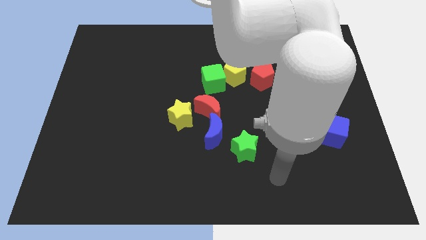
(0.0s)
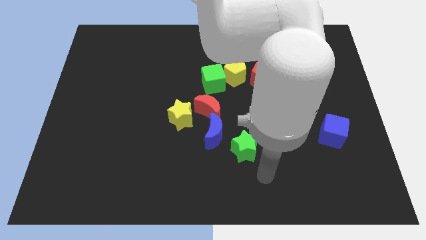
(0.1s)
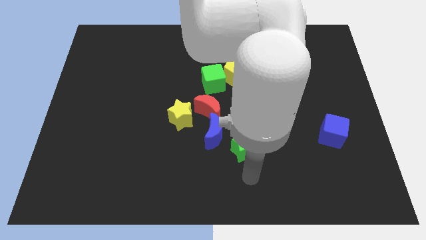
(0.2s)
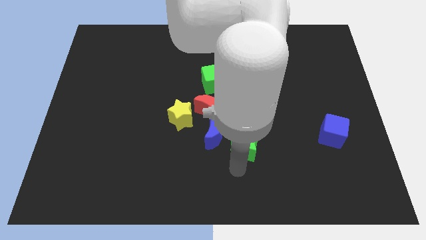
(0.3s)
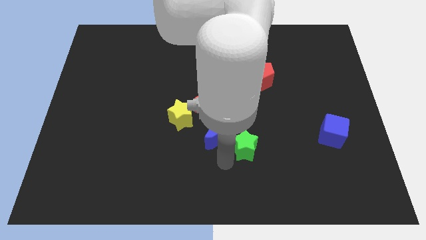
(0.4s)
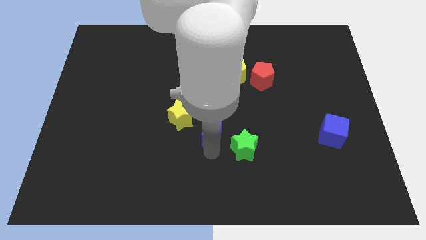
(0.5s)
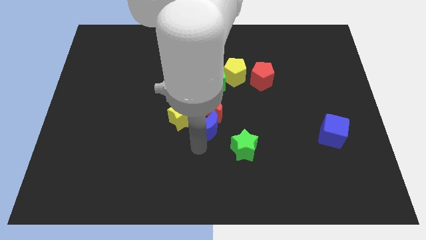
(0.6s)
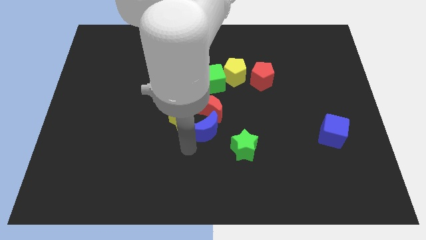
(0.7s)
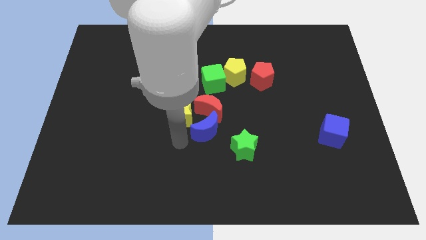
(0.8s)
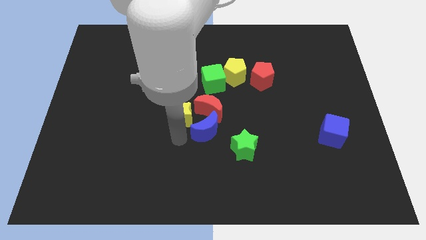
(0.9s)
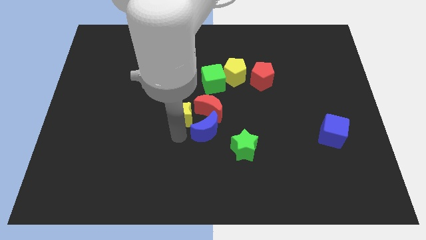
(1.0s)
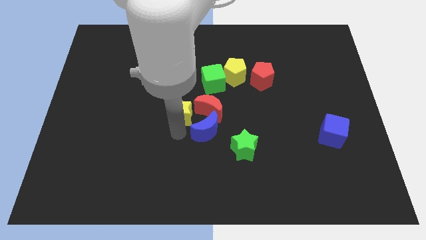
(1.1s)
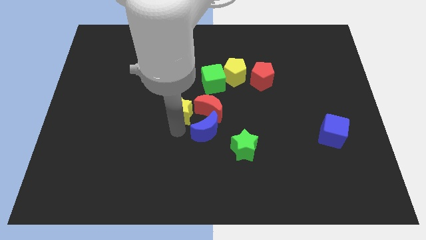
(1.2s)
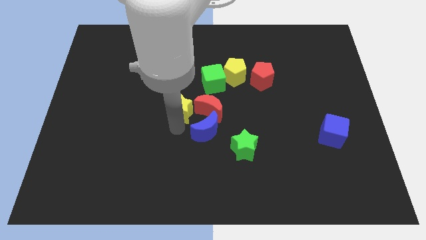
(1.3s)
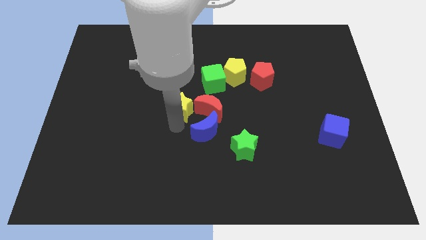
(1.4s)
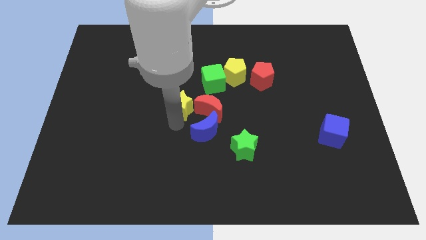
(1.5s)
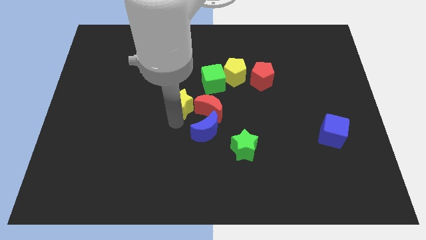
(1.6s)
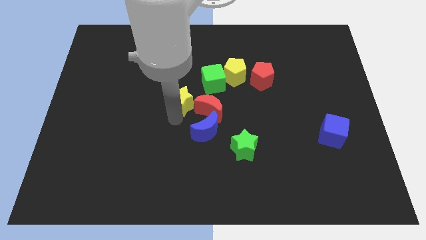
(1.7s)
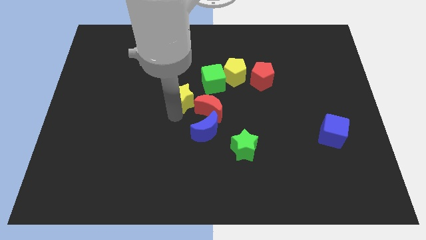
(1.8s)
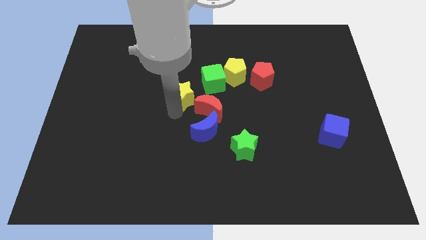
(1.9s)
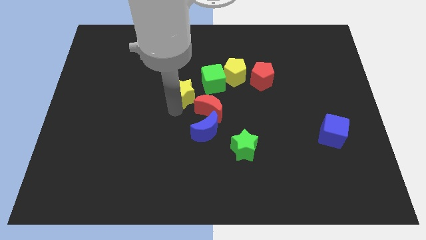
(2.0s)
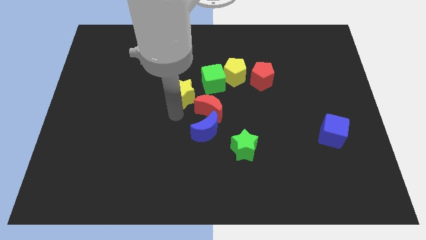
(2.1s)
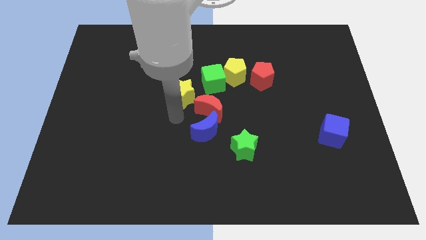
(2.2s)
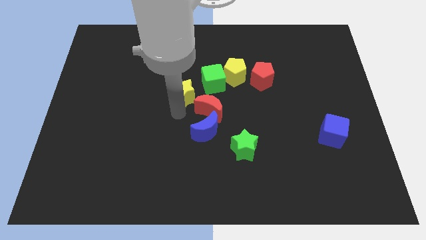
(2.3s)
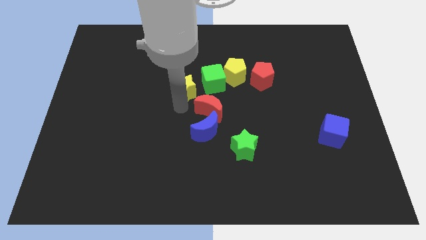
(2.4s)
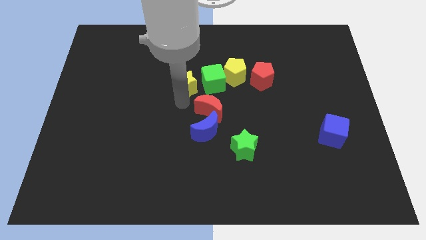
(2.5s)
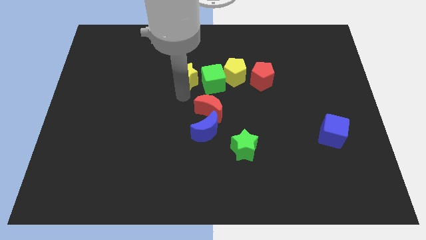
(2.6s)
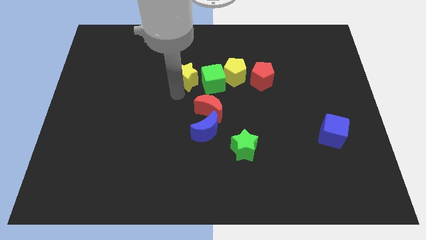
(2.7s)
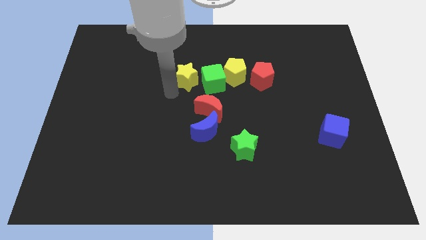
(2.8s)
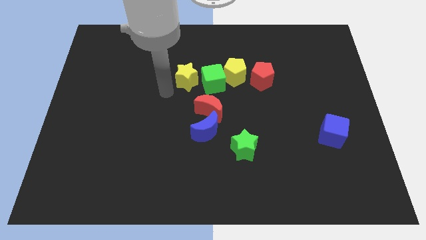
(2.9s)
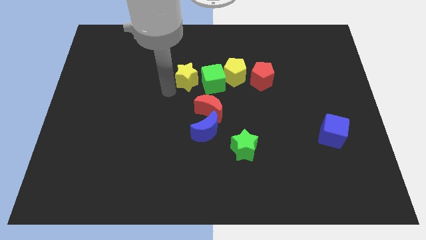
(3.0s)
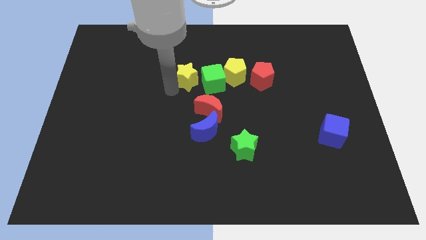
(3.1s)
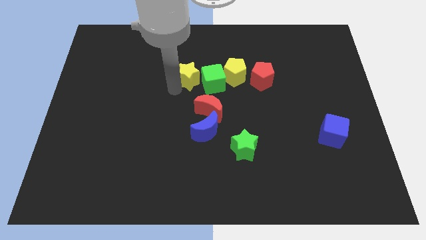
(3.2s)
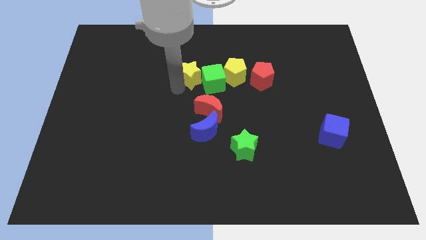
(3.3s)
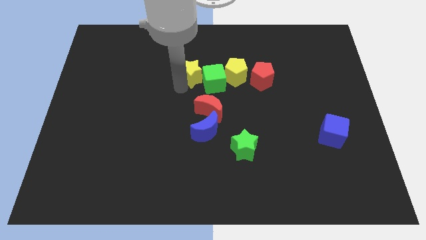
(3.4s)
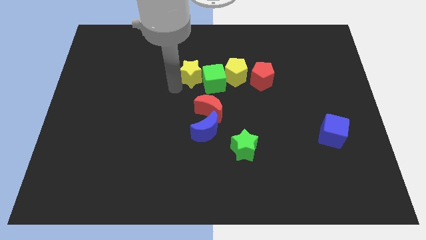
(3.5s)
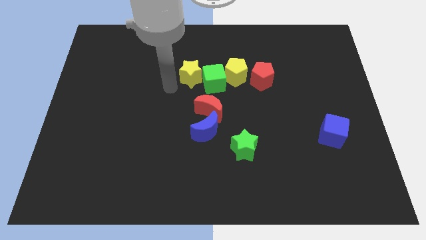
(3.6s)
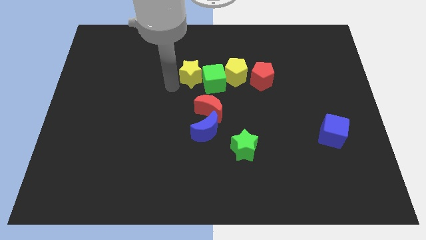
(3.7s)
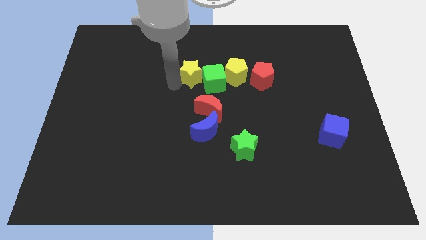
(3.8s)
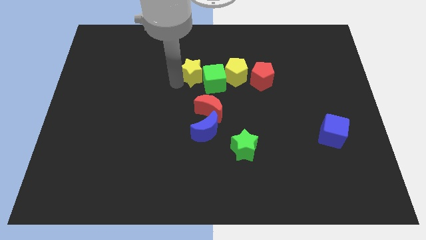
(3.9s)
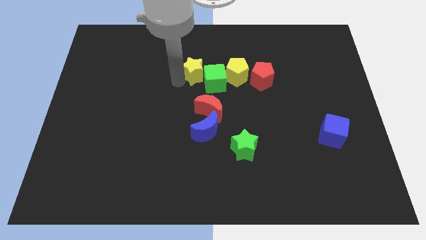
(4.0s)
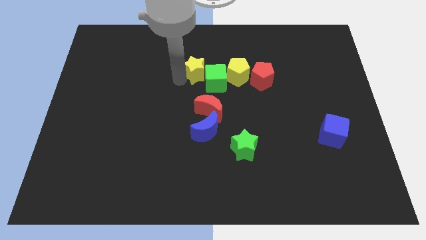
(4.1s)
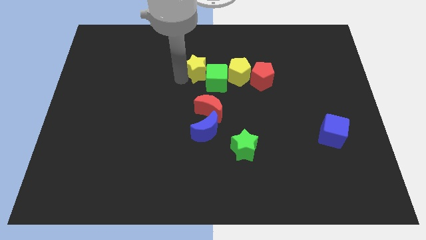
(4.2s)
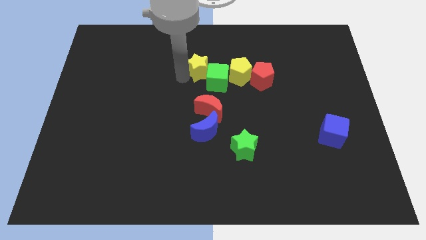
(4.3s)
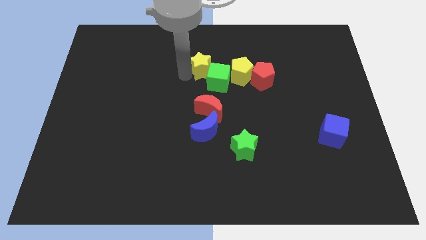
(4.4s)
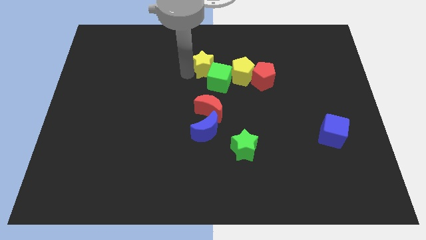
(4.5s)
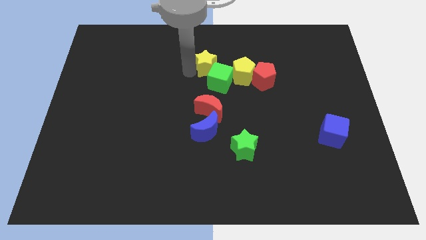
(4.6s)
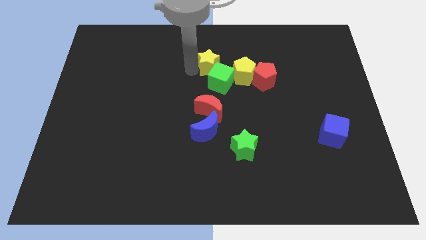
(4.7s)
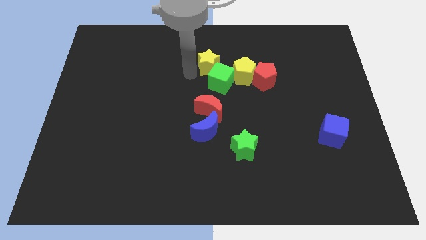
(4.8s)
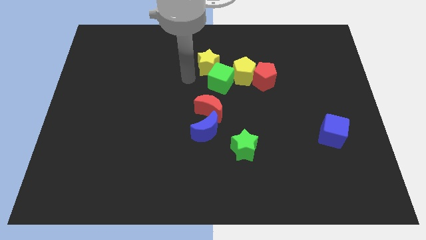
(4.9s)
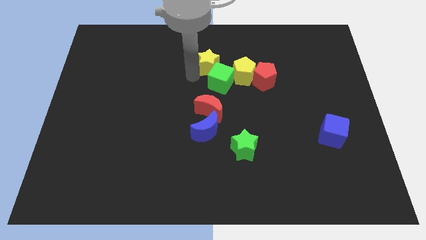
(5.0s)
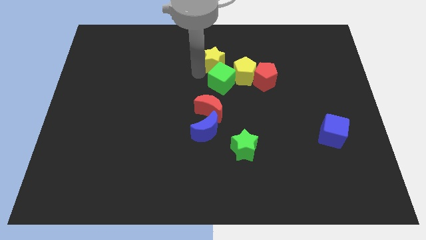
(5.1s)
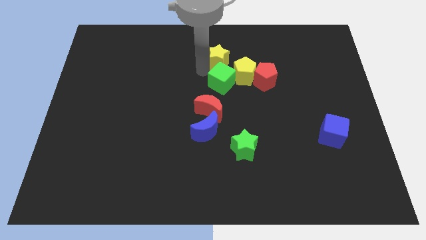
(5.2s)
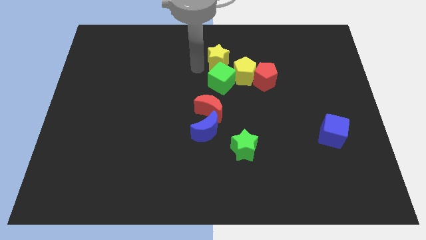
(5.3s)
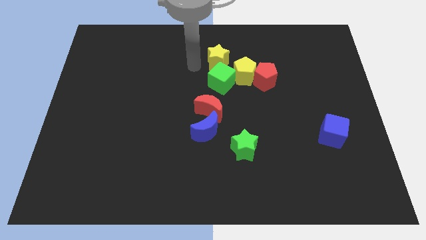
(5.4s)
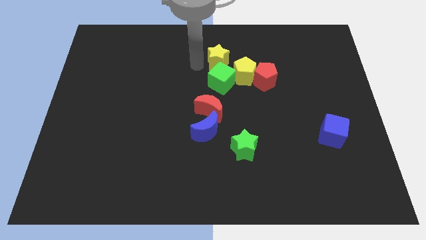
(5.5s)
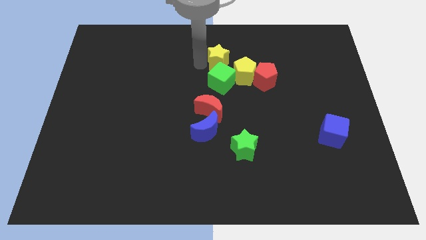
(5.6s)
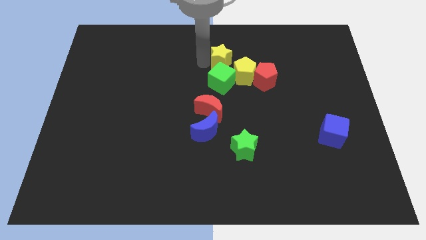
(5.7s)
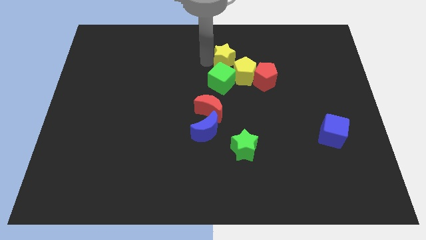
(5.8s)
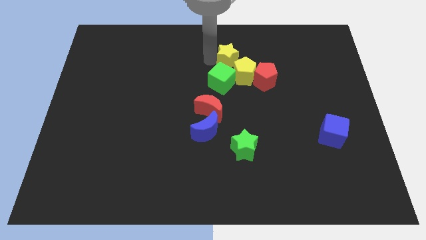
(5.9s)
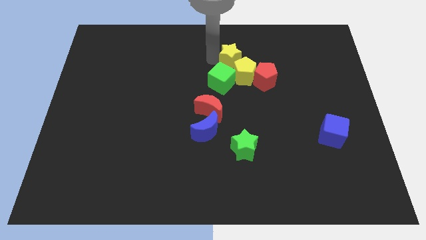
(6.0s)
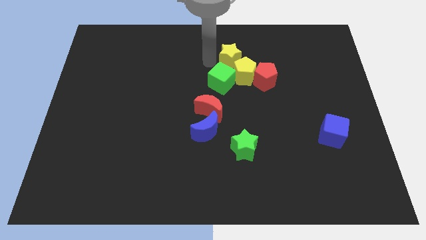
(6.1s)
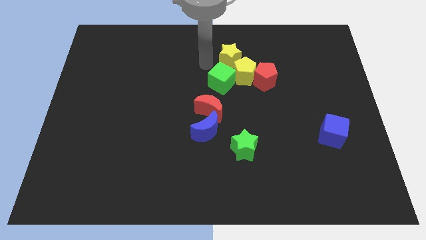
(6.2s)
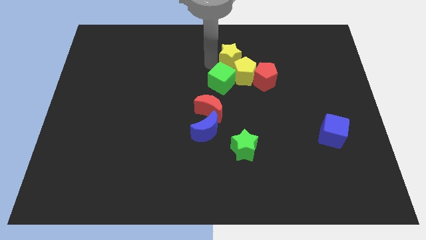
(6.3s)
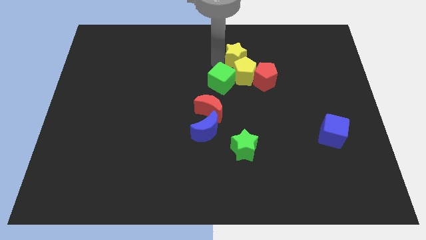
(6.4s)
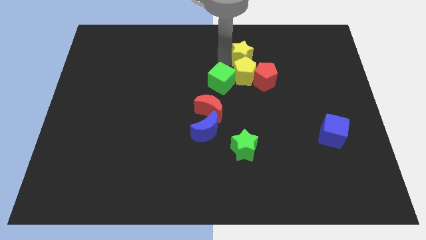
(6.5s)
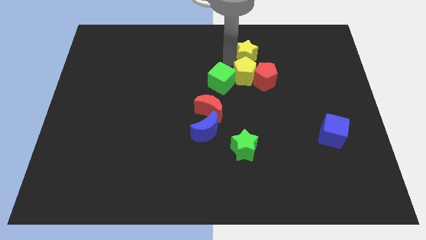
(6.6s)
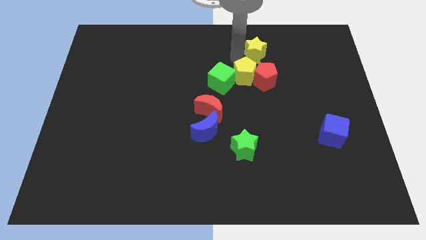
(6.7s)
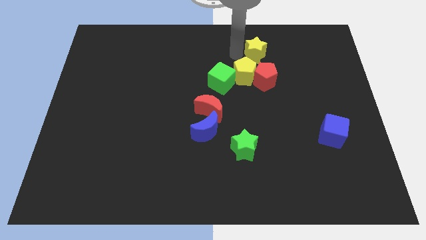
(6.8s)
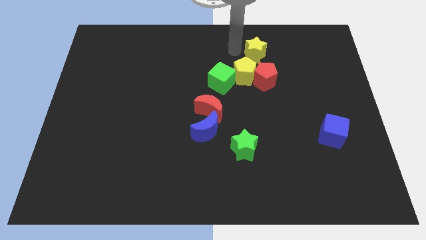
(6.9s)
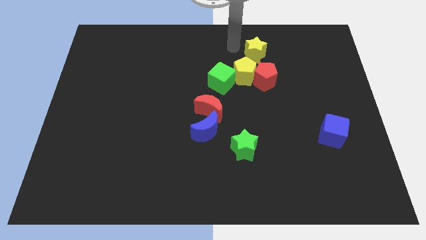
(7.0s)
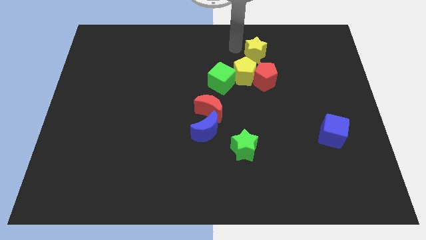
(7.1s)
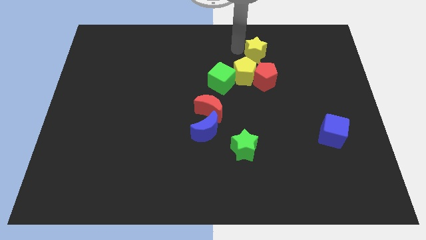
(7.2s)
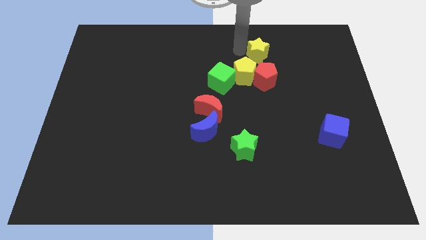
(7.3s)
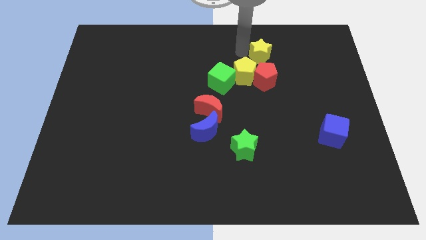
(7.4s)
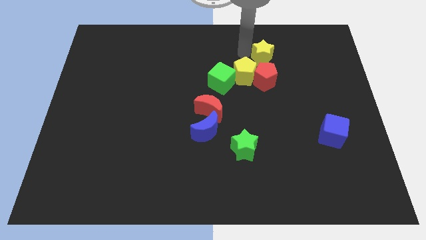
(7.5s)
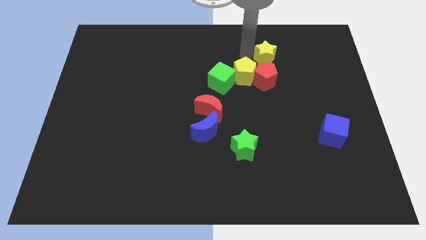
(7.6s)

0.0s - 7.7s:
slide the yellow star to the top right of the red pentagon
